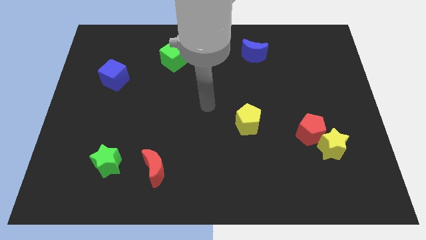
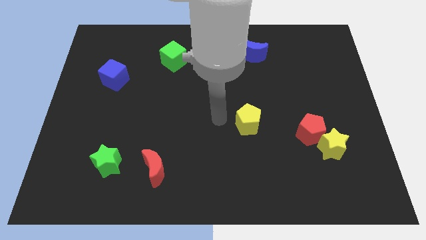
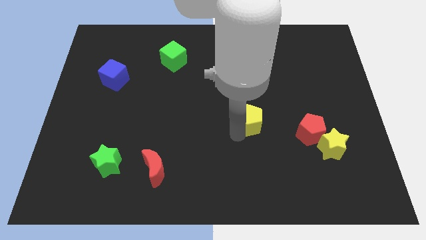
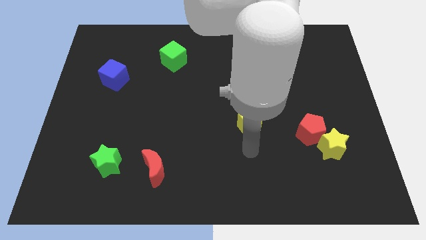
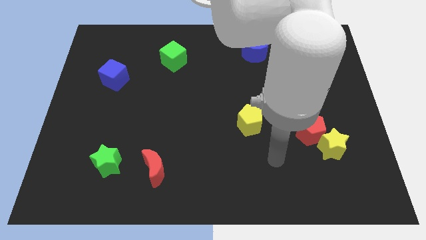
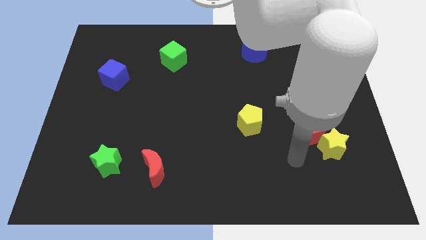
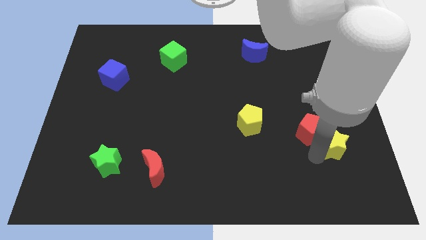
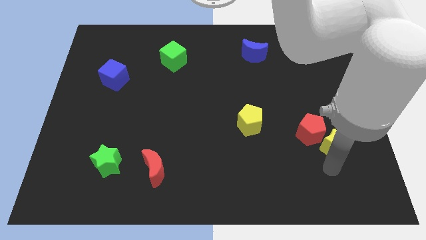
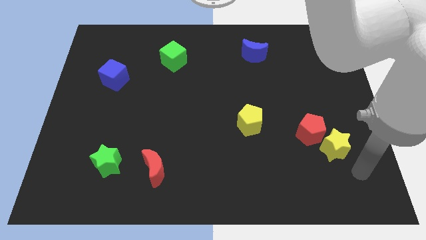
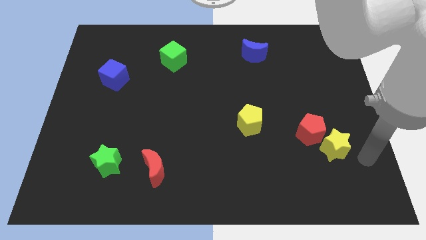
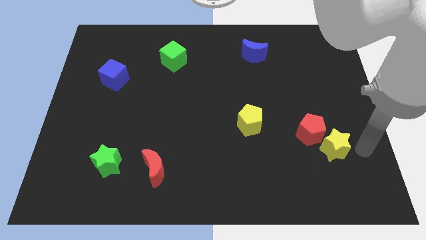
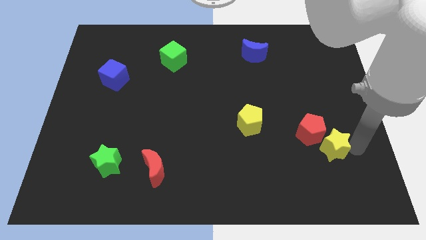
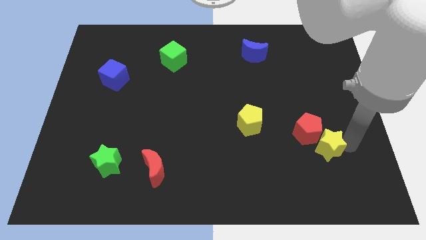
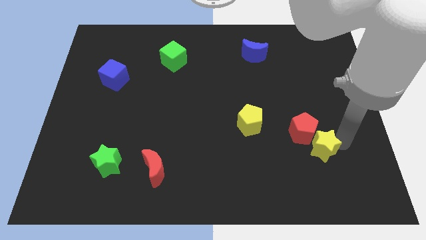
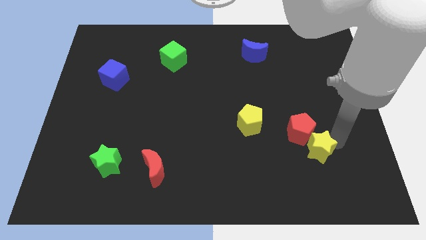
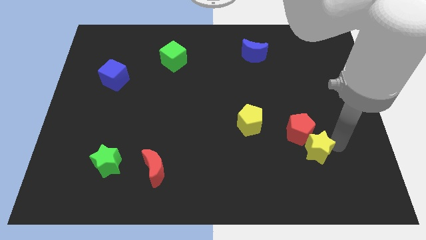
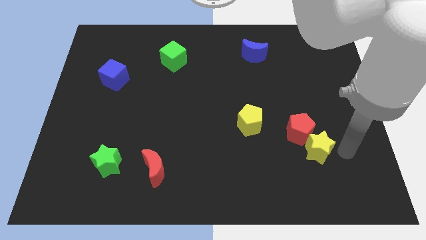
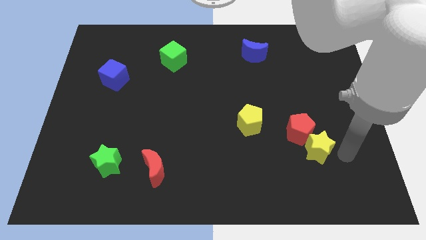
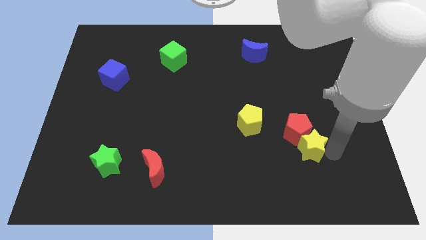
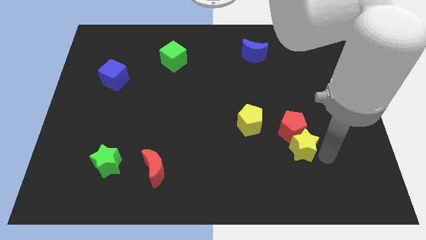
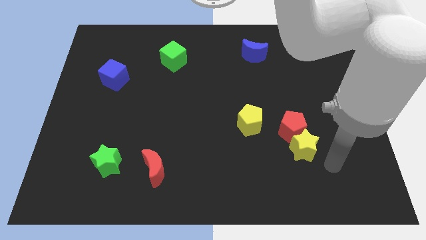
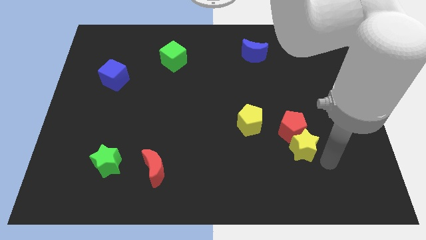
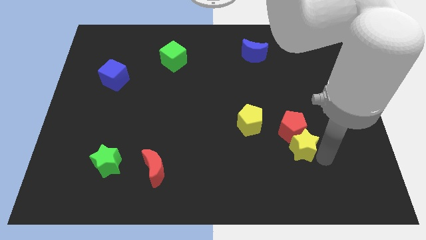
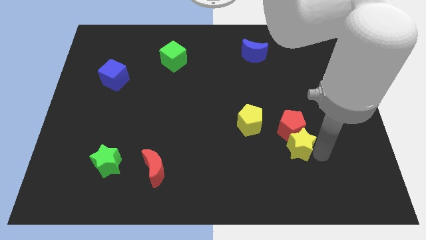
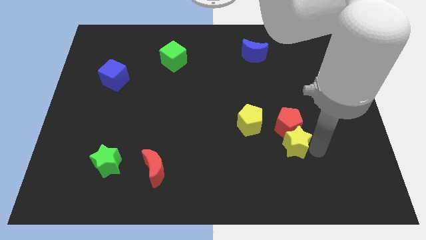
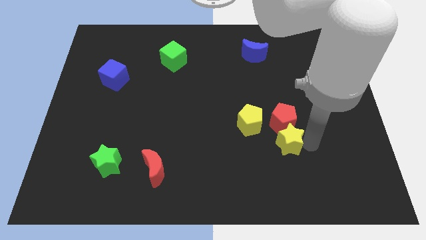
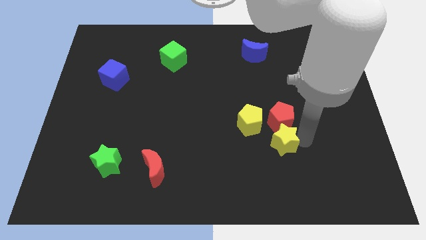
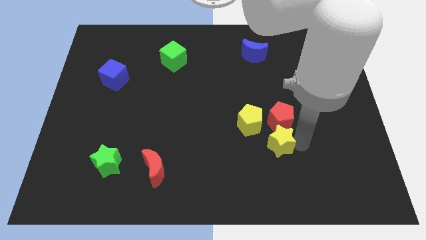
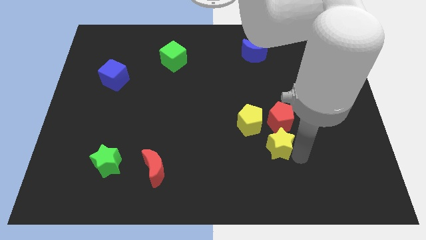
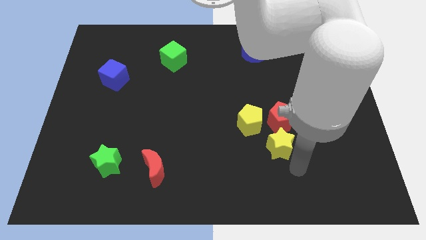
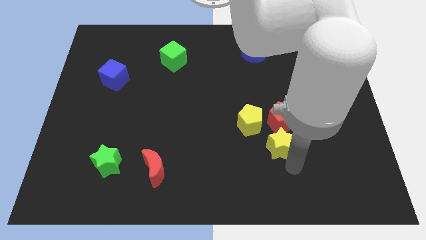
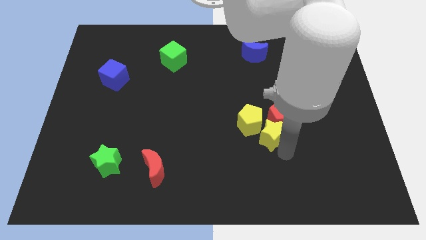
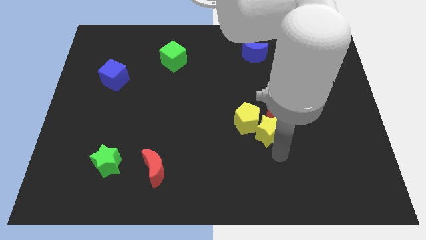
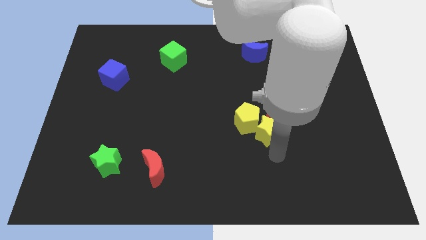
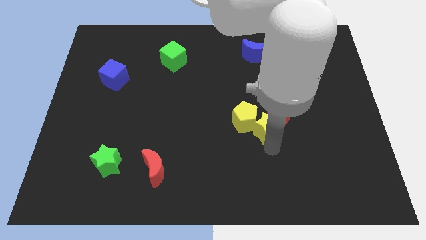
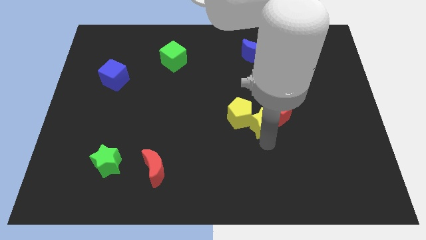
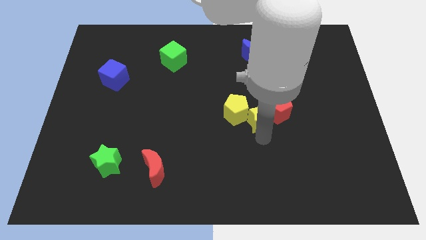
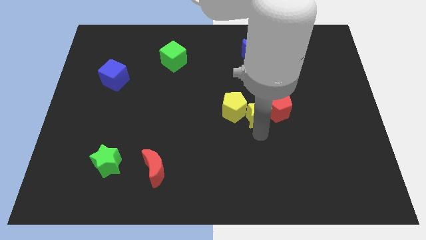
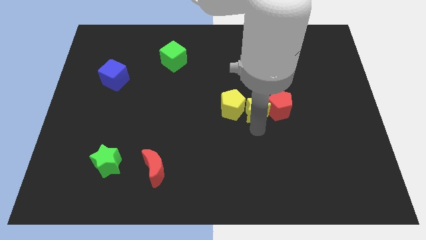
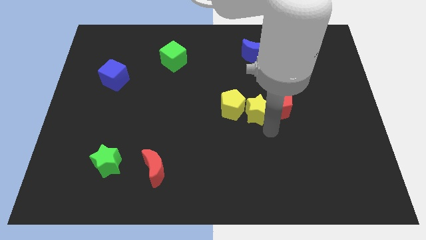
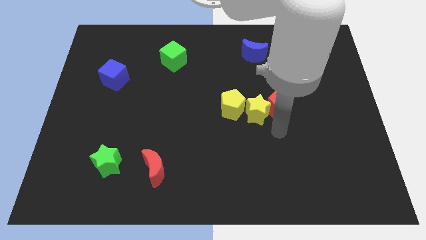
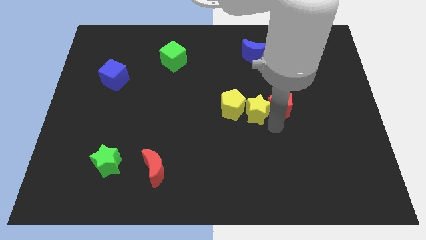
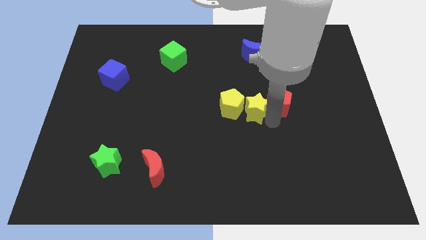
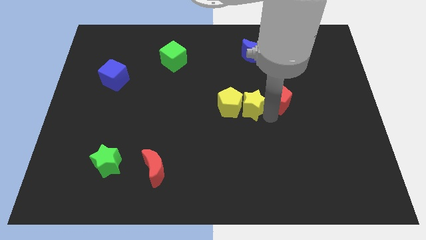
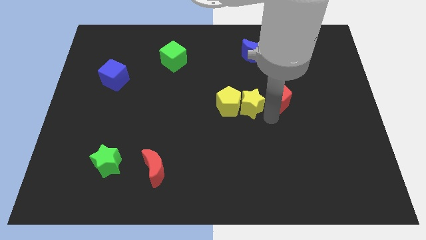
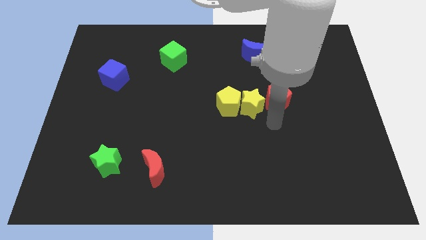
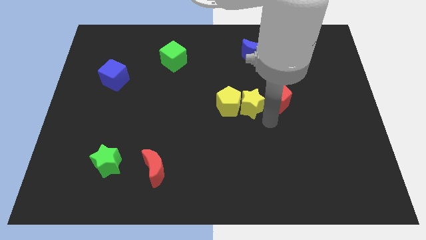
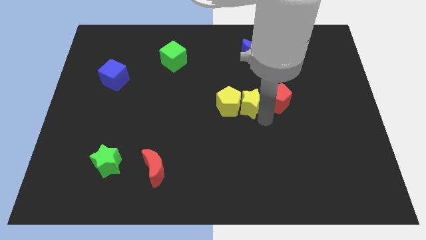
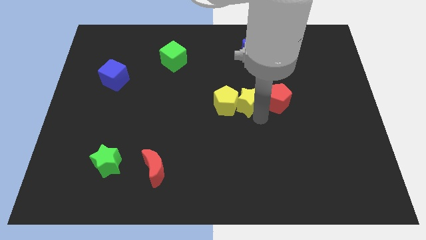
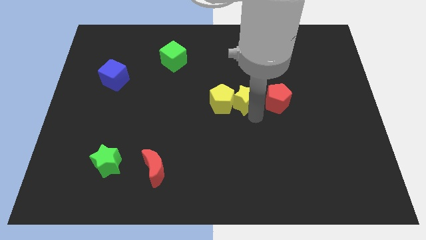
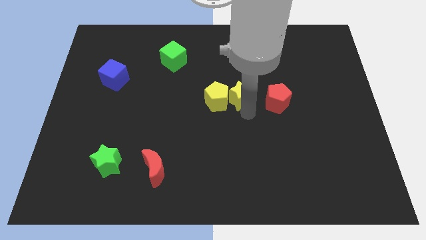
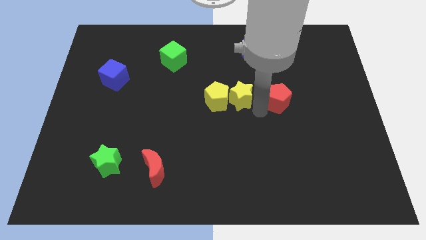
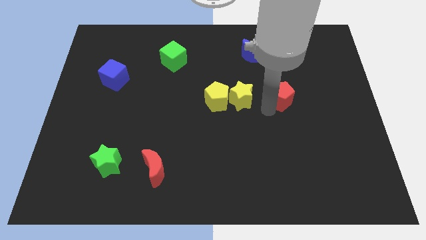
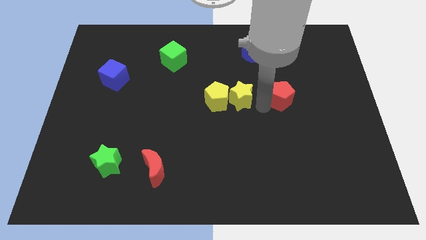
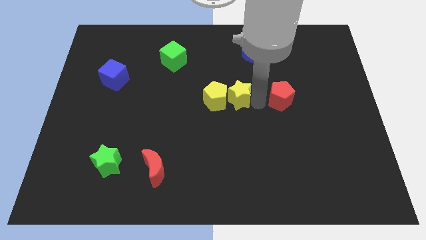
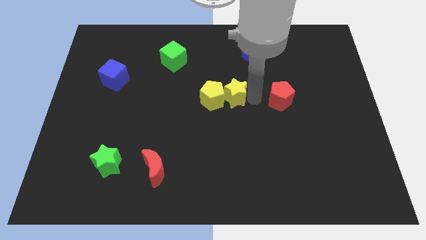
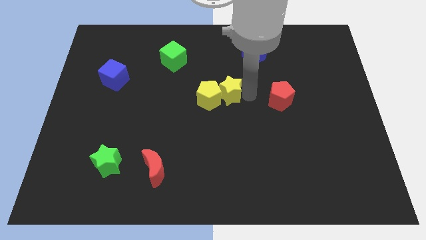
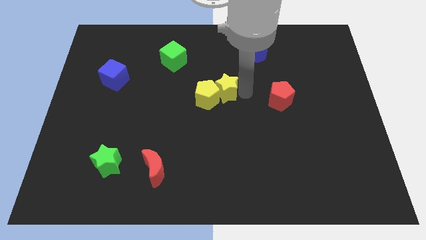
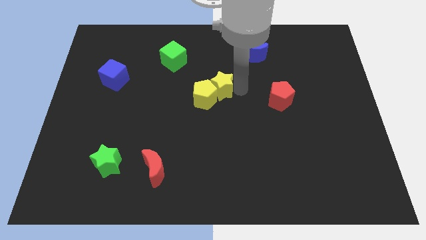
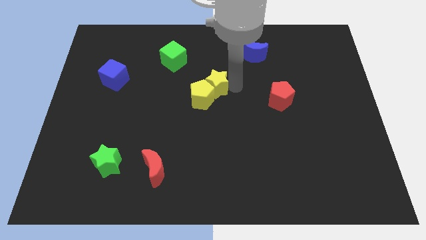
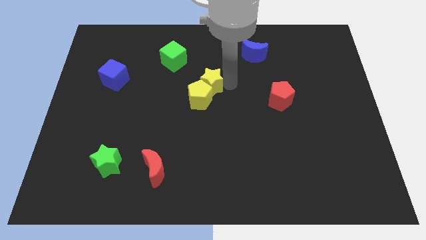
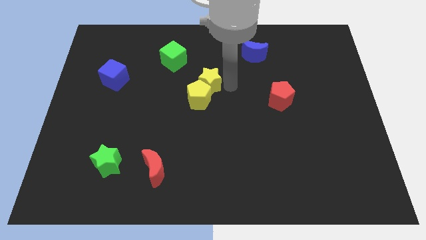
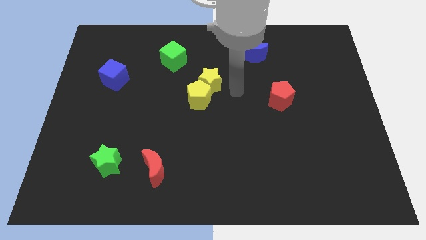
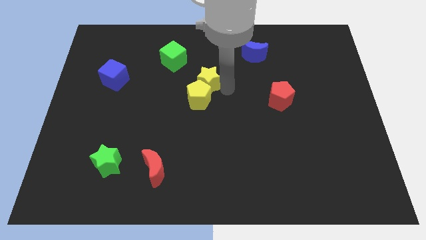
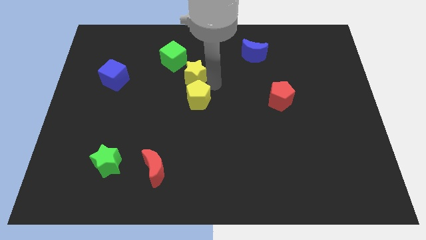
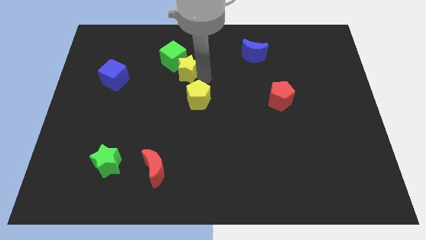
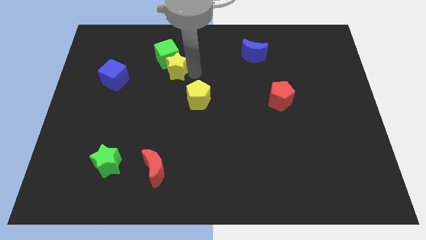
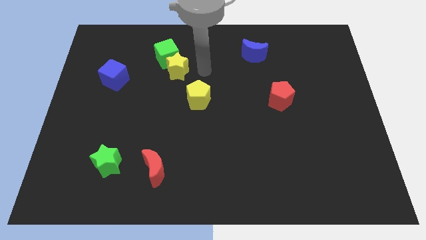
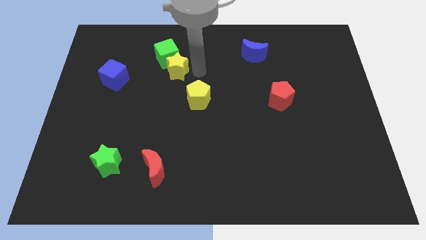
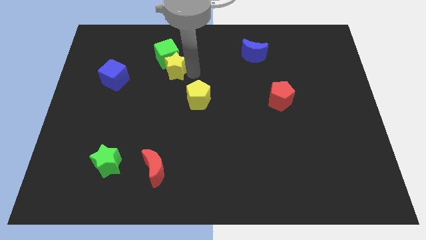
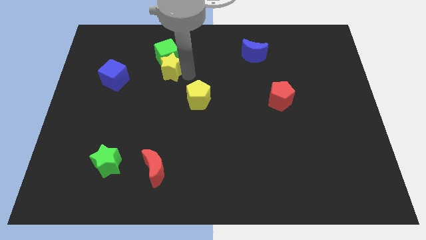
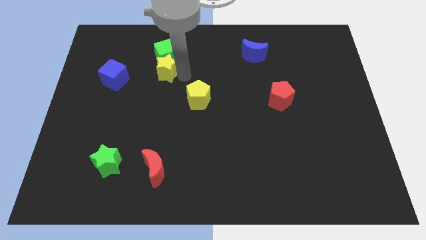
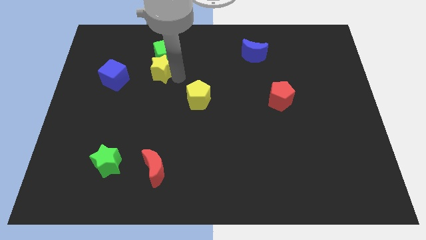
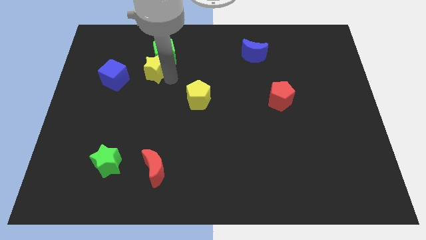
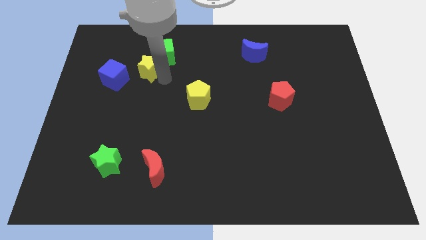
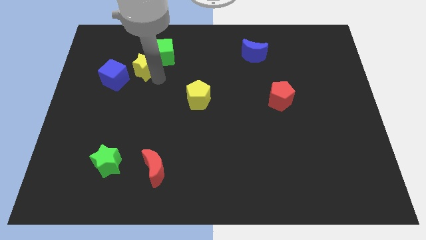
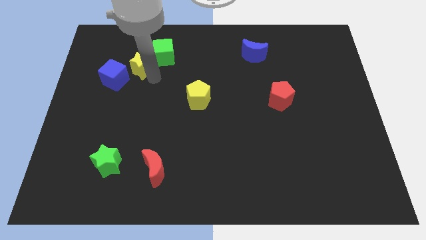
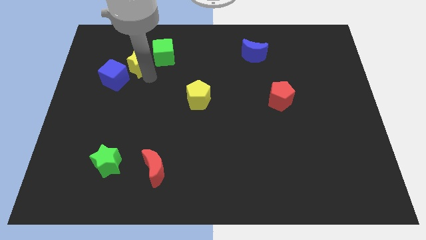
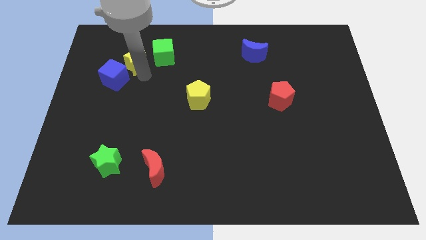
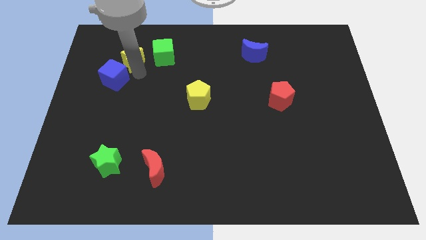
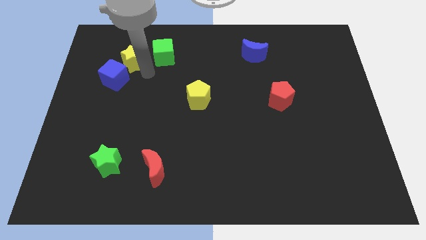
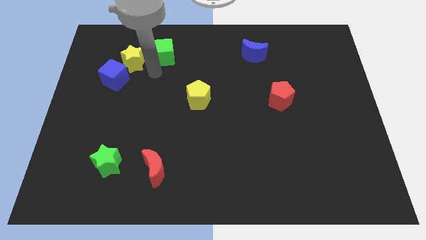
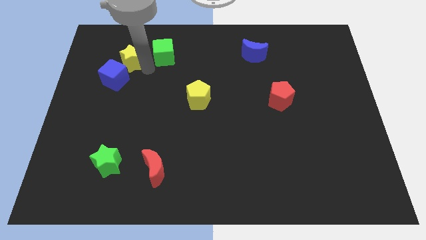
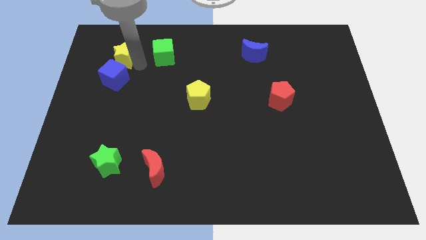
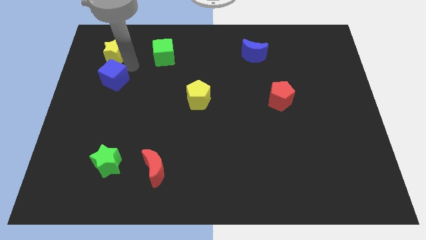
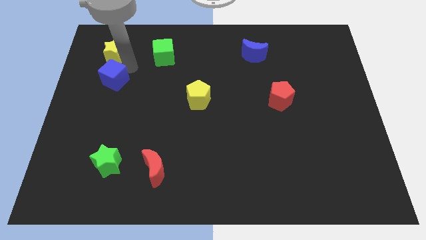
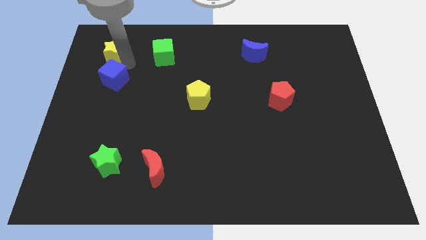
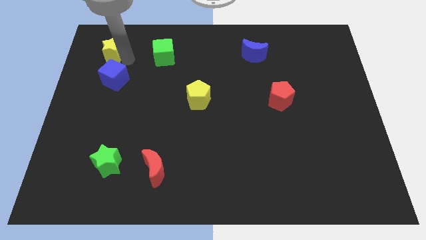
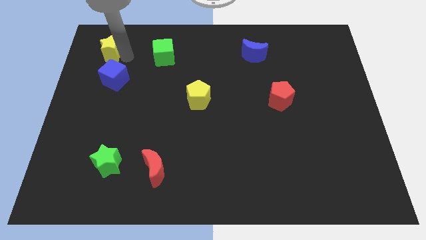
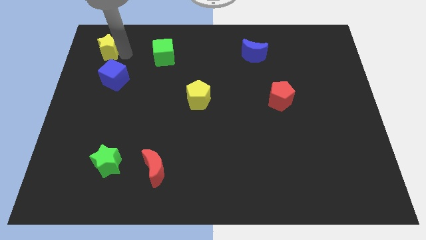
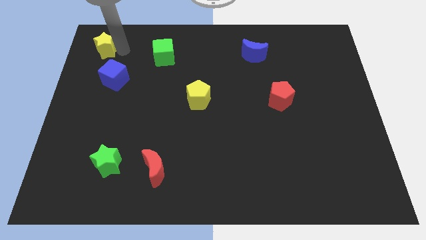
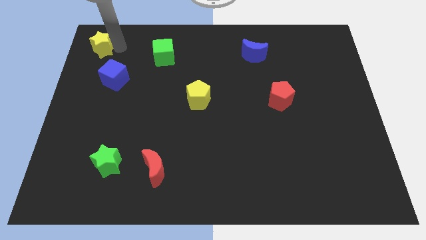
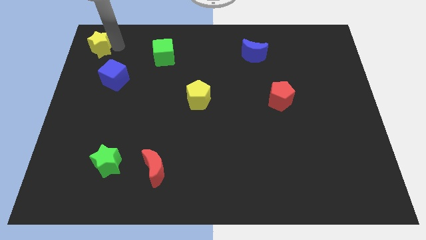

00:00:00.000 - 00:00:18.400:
push the yellow star to the upper left corner
